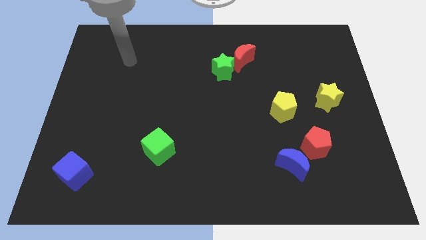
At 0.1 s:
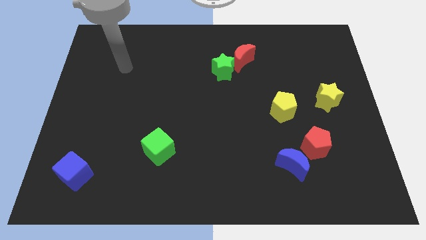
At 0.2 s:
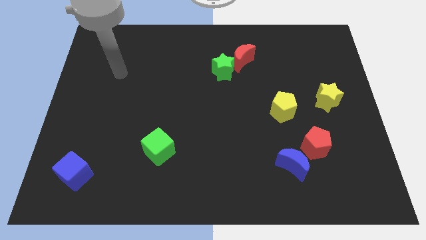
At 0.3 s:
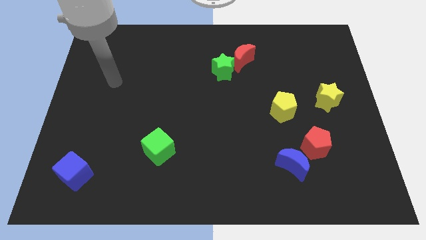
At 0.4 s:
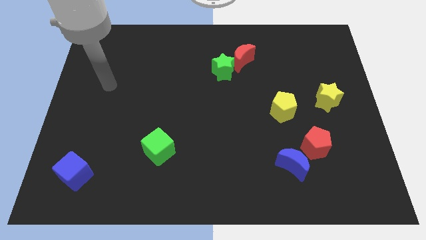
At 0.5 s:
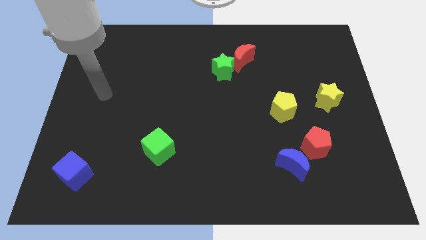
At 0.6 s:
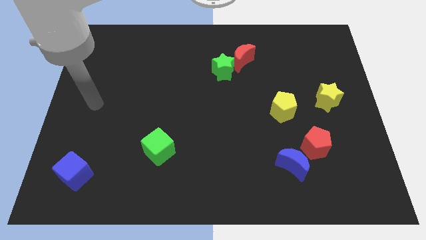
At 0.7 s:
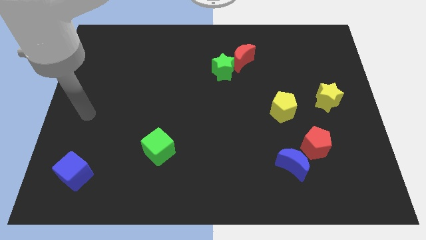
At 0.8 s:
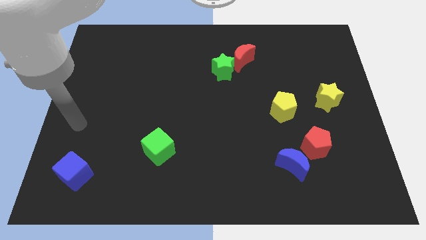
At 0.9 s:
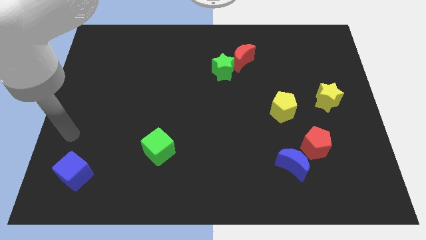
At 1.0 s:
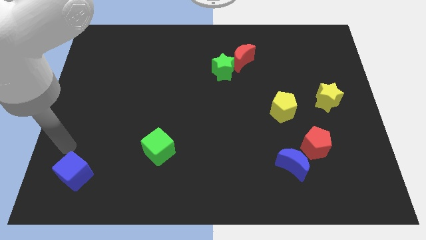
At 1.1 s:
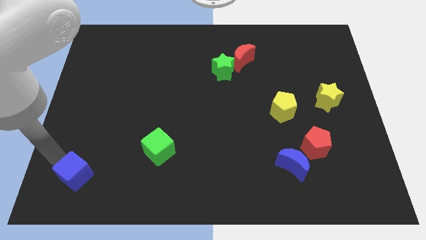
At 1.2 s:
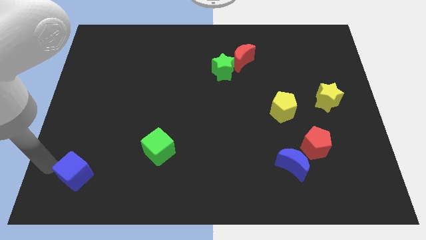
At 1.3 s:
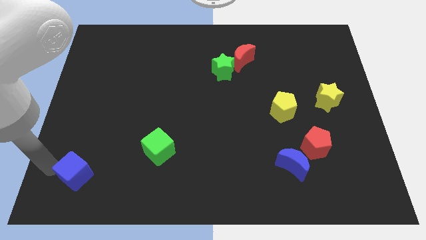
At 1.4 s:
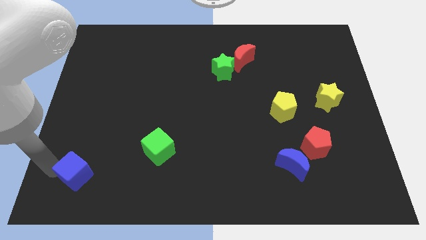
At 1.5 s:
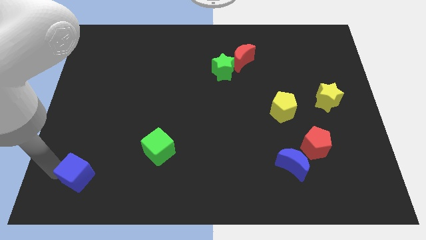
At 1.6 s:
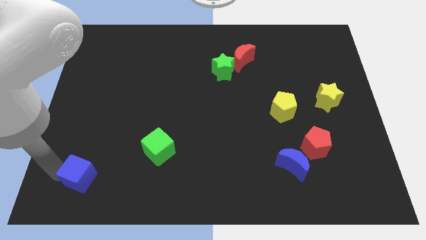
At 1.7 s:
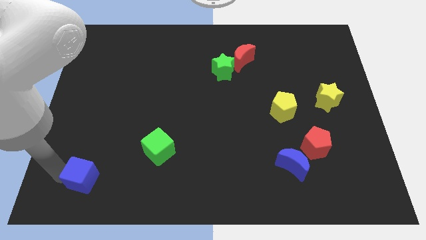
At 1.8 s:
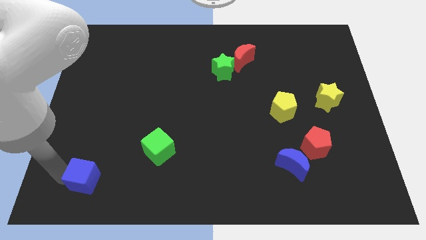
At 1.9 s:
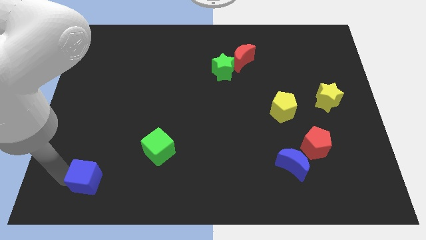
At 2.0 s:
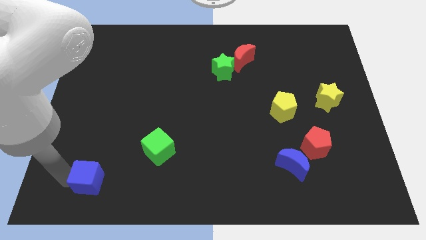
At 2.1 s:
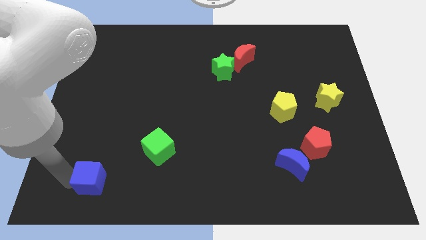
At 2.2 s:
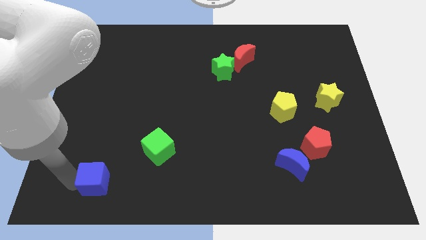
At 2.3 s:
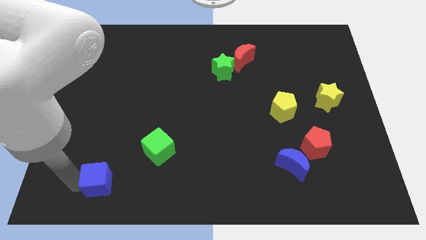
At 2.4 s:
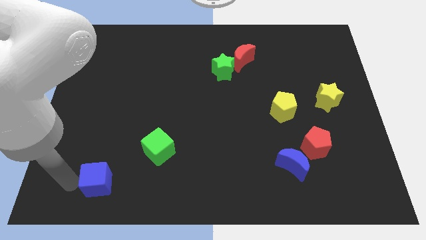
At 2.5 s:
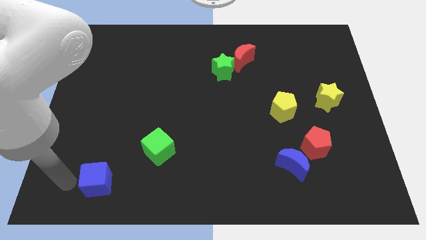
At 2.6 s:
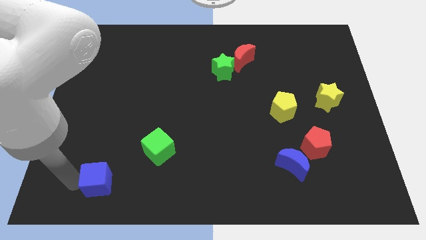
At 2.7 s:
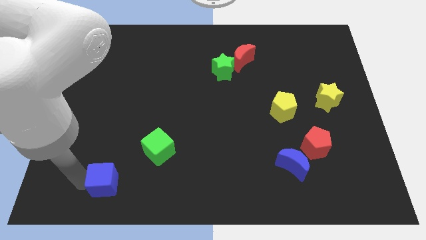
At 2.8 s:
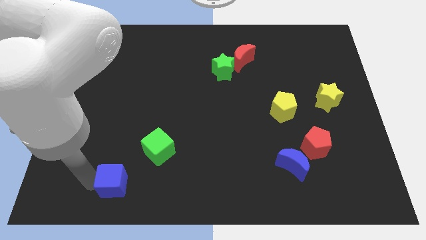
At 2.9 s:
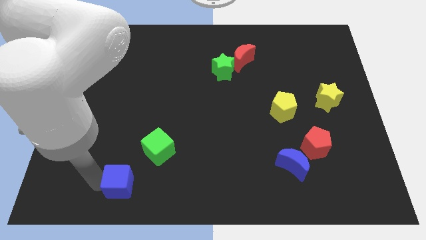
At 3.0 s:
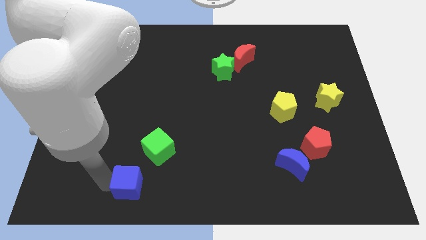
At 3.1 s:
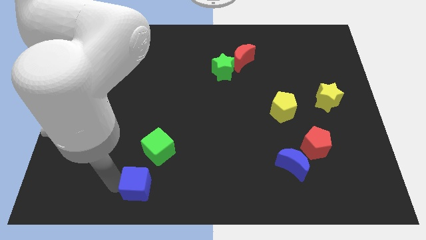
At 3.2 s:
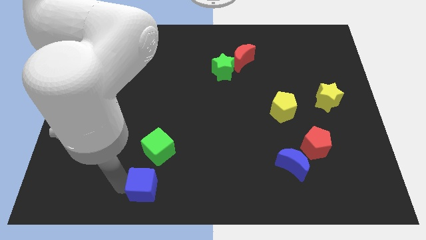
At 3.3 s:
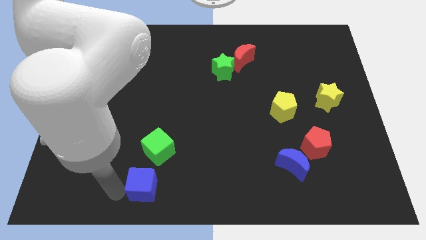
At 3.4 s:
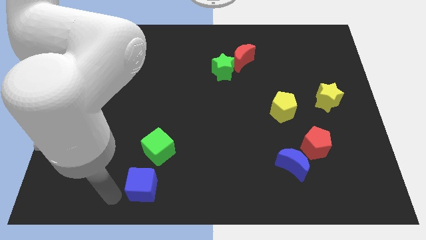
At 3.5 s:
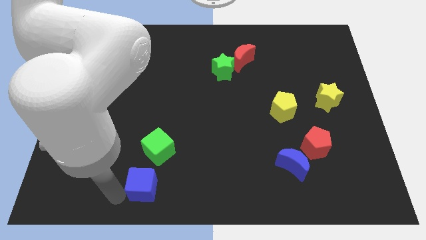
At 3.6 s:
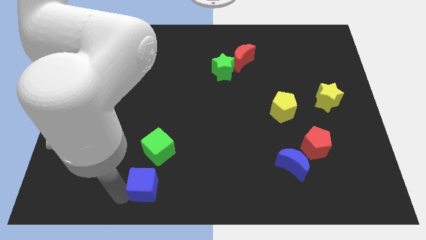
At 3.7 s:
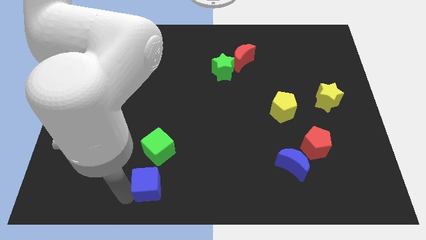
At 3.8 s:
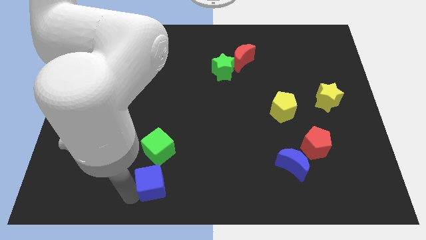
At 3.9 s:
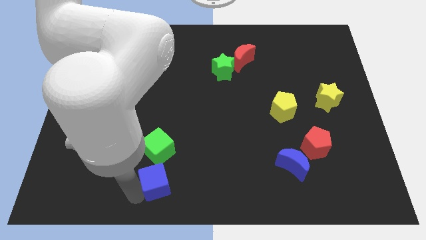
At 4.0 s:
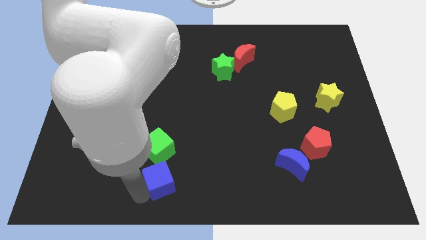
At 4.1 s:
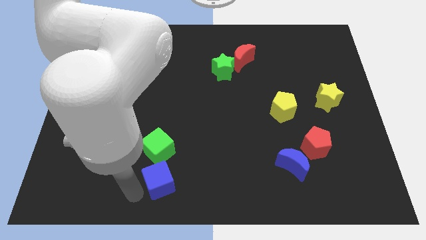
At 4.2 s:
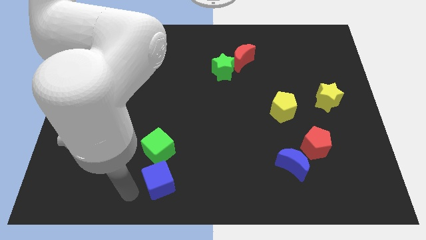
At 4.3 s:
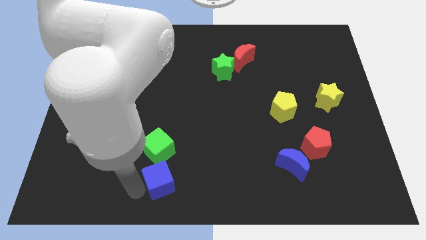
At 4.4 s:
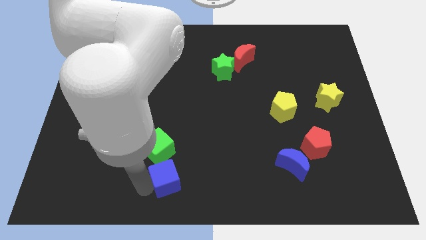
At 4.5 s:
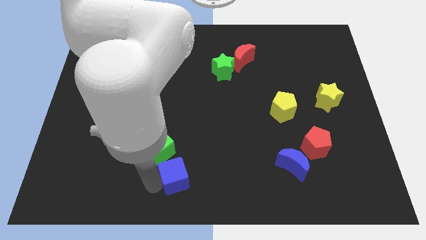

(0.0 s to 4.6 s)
move the blue cube right

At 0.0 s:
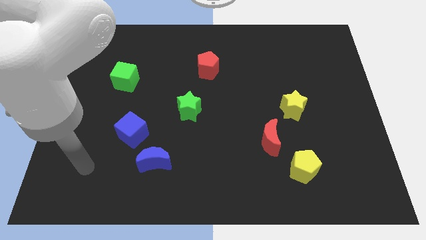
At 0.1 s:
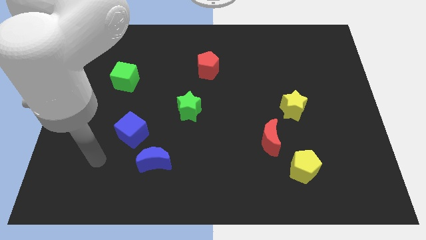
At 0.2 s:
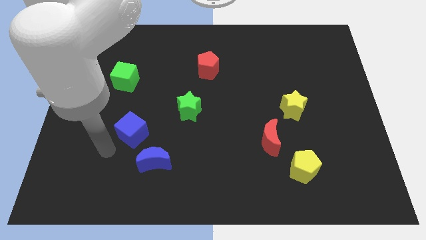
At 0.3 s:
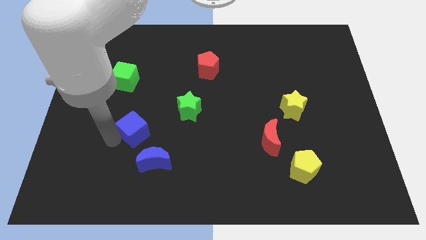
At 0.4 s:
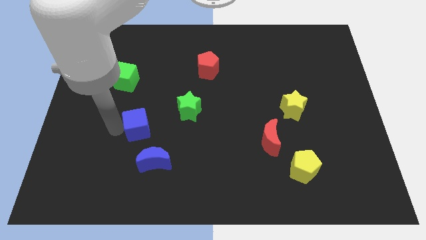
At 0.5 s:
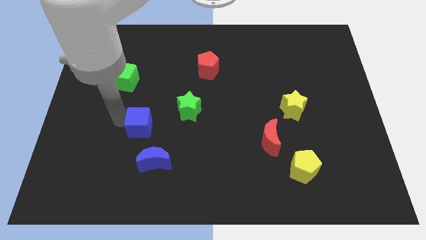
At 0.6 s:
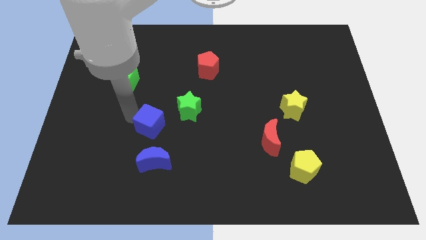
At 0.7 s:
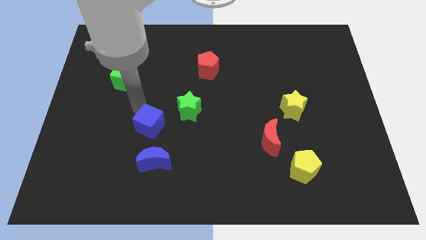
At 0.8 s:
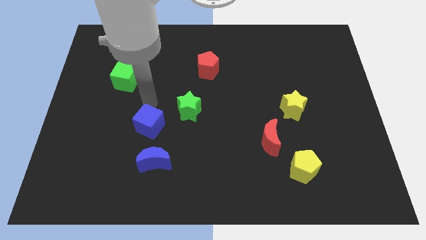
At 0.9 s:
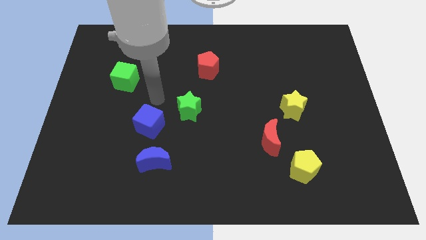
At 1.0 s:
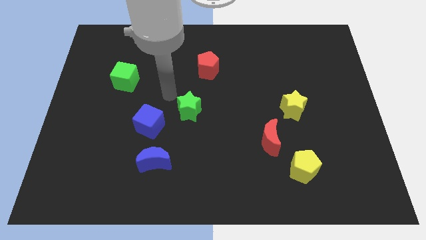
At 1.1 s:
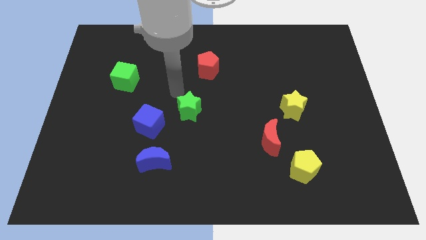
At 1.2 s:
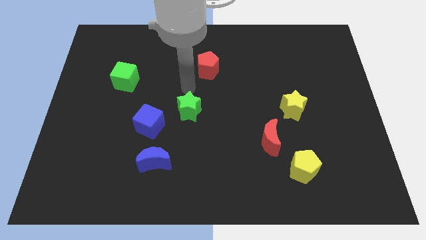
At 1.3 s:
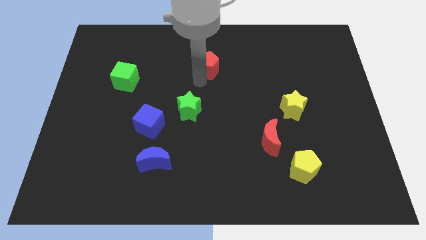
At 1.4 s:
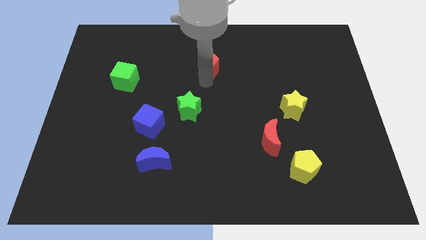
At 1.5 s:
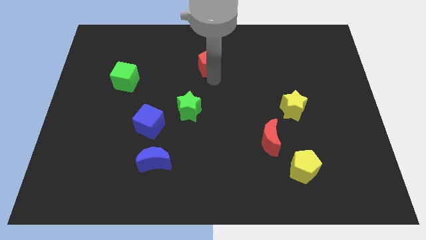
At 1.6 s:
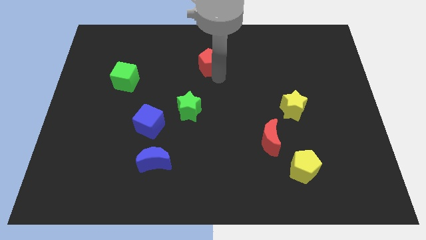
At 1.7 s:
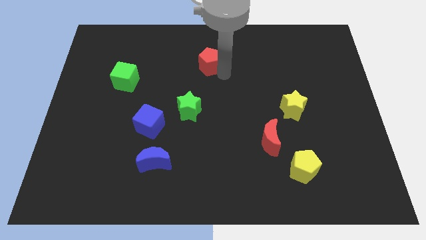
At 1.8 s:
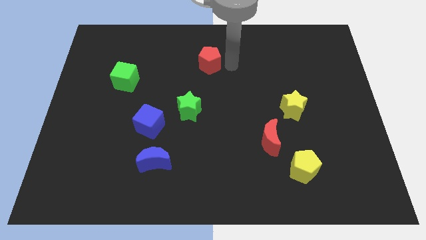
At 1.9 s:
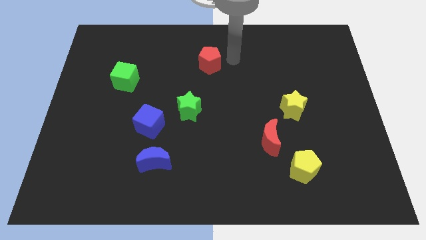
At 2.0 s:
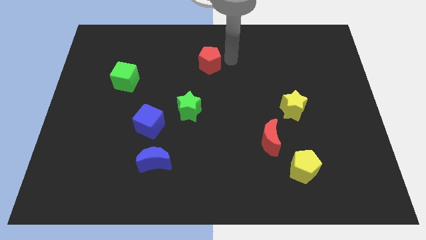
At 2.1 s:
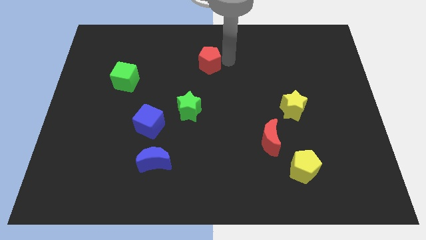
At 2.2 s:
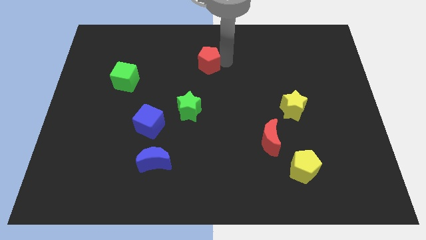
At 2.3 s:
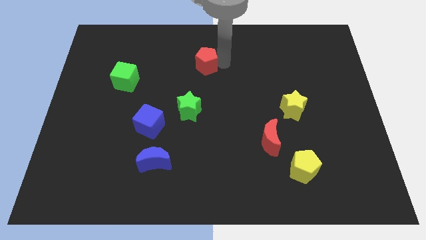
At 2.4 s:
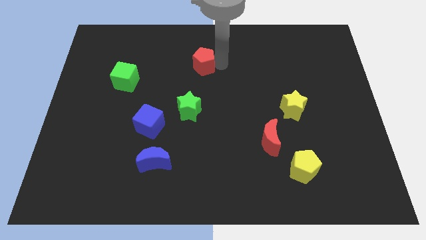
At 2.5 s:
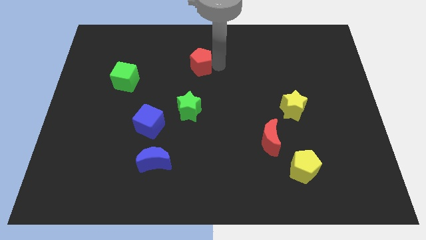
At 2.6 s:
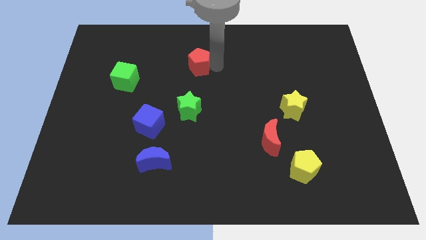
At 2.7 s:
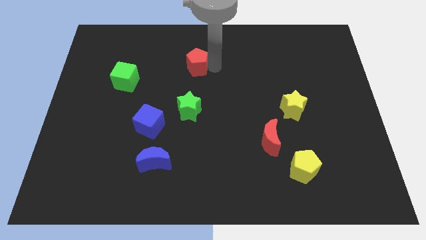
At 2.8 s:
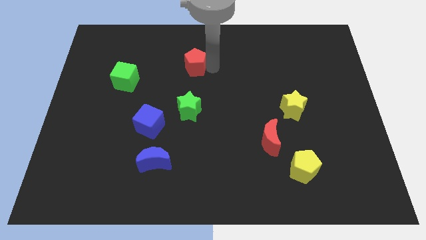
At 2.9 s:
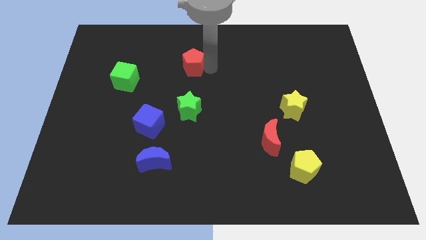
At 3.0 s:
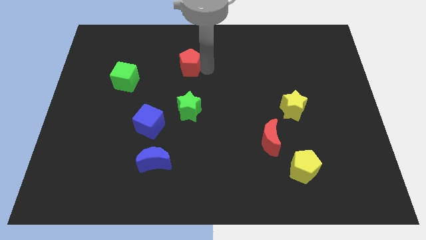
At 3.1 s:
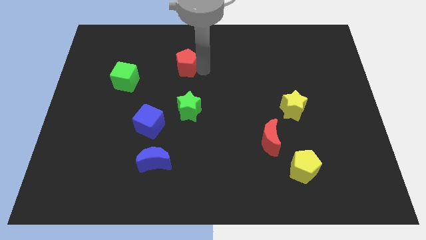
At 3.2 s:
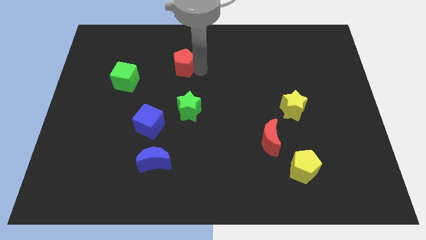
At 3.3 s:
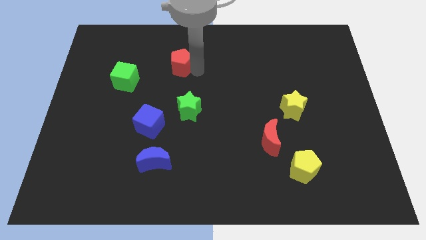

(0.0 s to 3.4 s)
slightly move the red pentagon left
